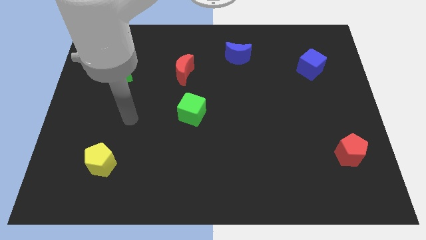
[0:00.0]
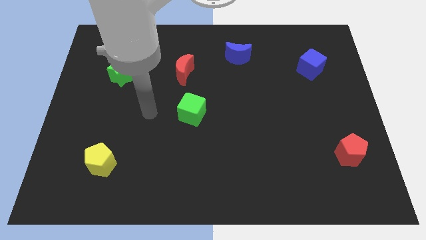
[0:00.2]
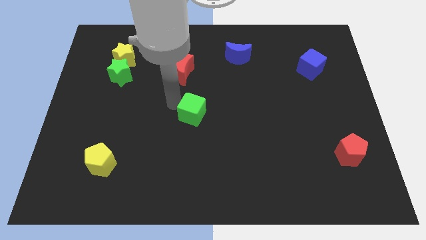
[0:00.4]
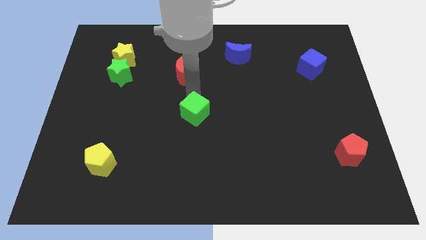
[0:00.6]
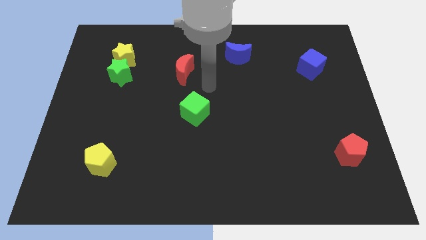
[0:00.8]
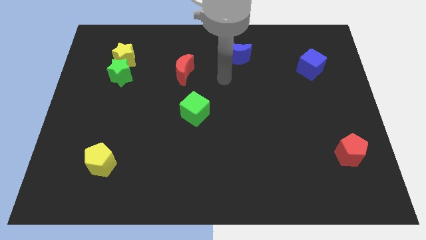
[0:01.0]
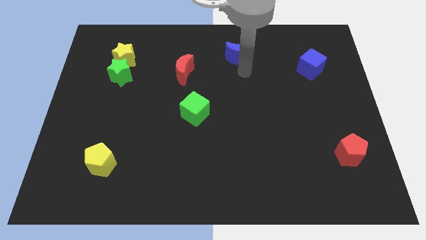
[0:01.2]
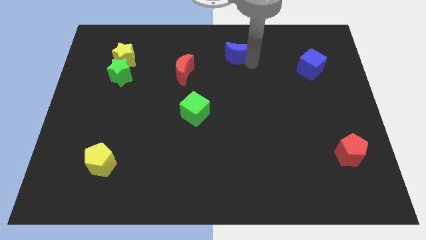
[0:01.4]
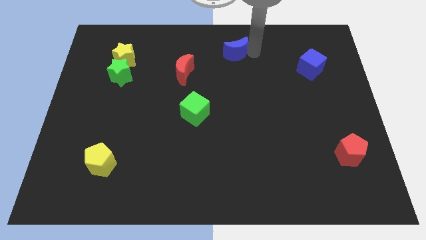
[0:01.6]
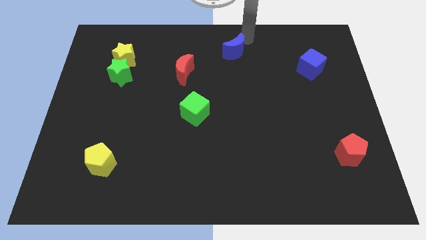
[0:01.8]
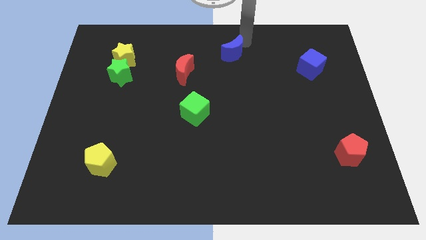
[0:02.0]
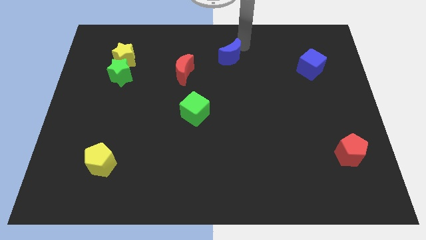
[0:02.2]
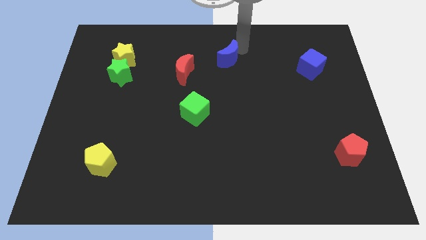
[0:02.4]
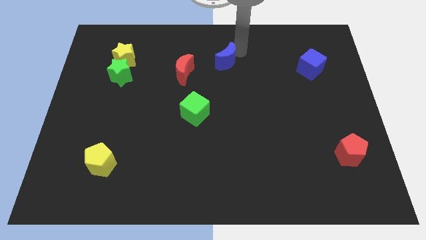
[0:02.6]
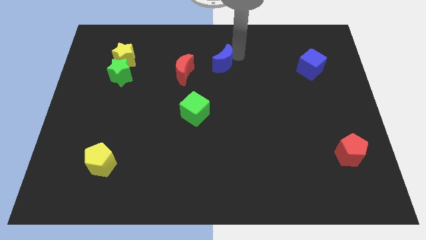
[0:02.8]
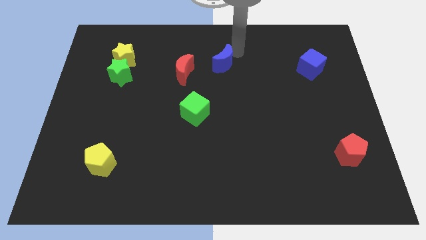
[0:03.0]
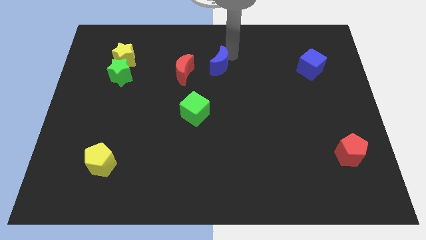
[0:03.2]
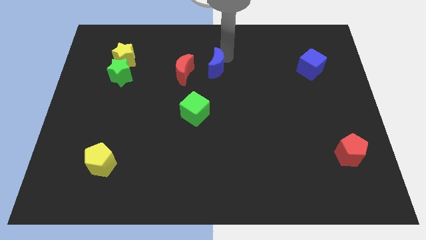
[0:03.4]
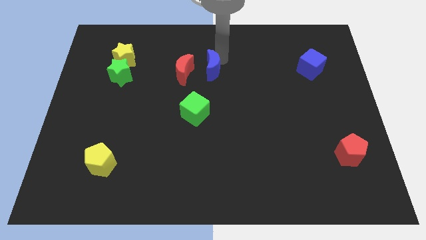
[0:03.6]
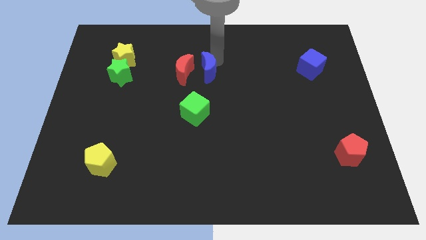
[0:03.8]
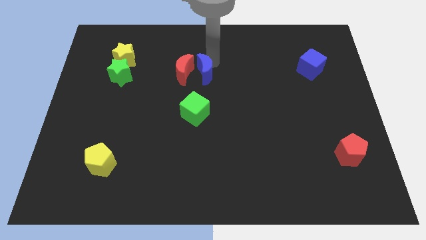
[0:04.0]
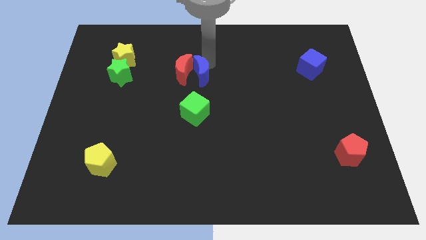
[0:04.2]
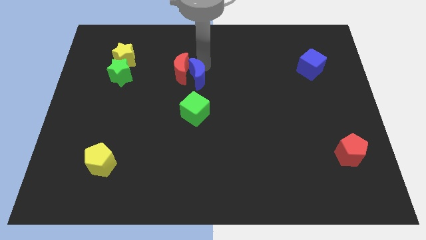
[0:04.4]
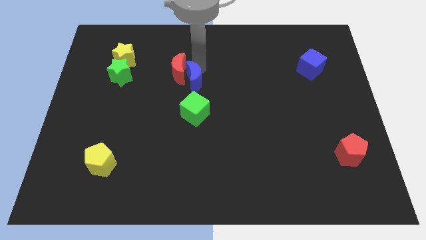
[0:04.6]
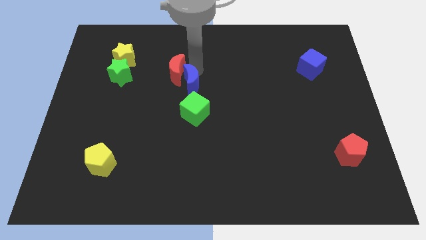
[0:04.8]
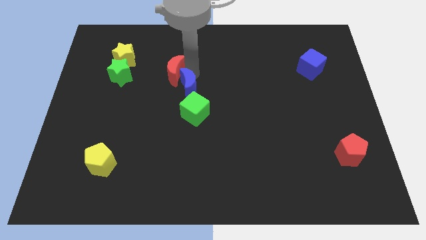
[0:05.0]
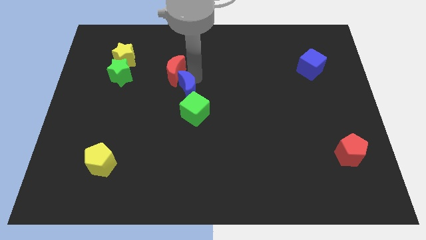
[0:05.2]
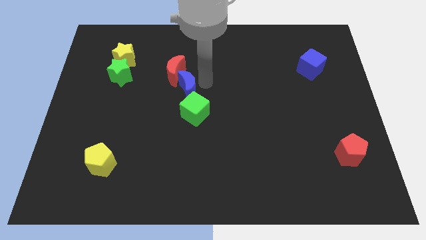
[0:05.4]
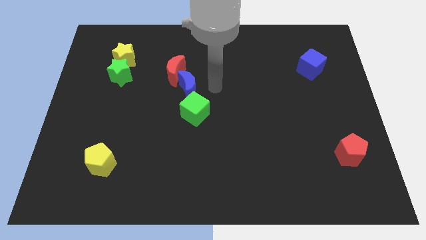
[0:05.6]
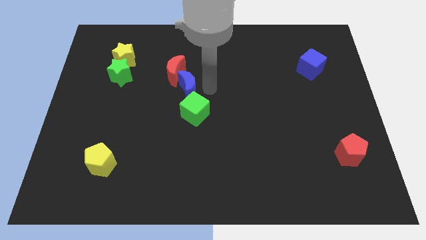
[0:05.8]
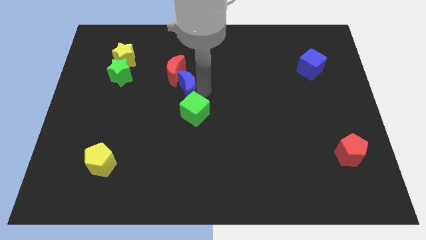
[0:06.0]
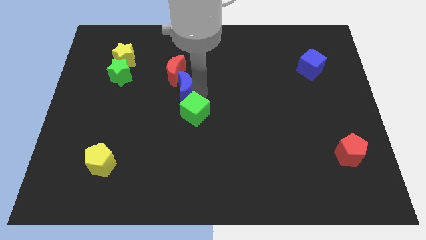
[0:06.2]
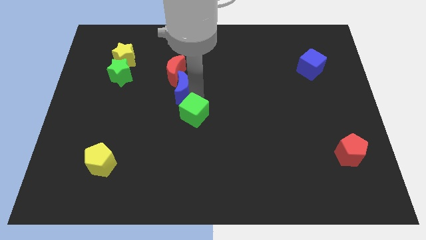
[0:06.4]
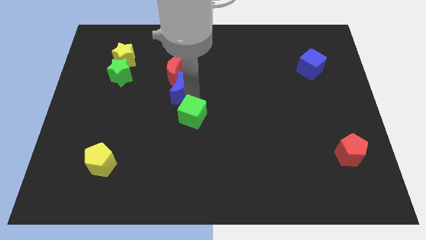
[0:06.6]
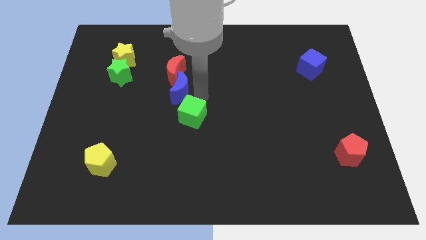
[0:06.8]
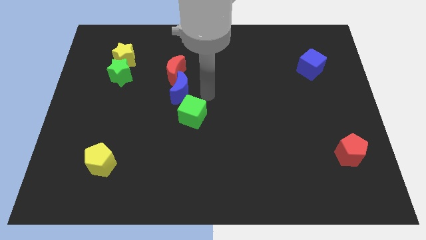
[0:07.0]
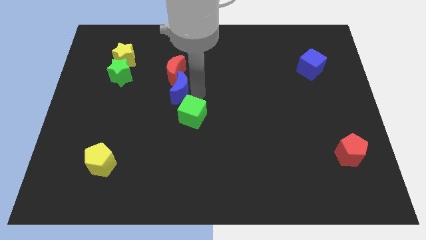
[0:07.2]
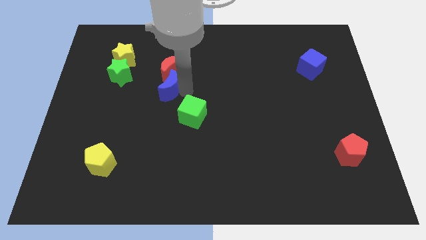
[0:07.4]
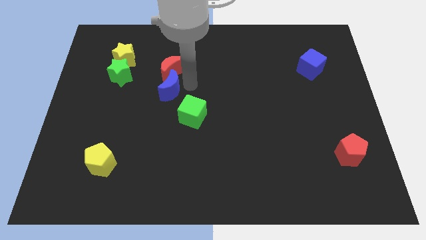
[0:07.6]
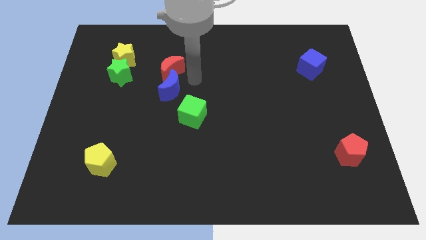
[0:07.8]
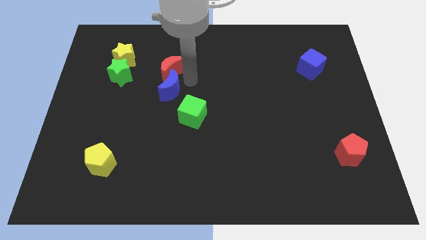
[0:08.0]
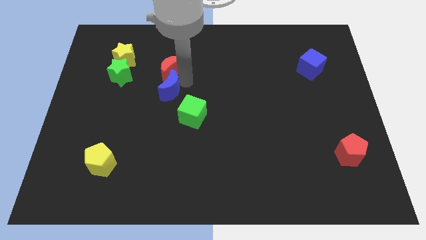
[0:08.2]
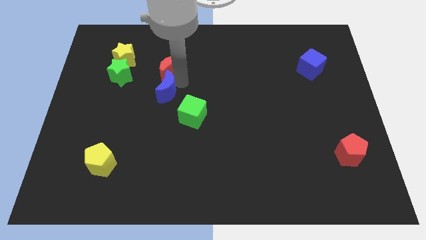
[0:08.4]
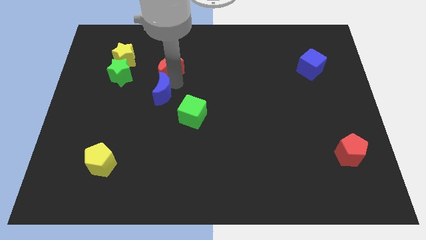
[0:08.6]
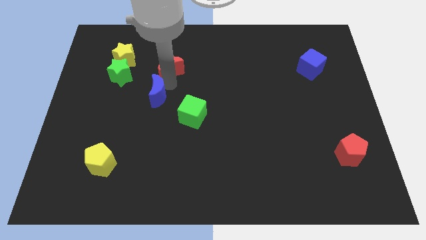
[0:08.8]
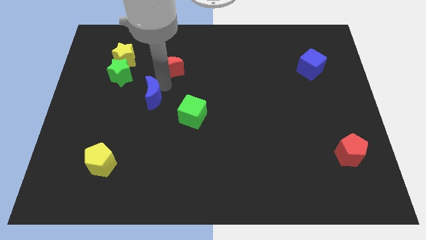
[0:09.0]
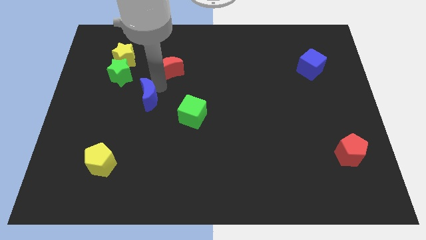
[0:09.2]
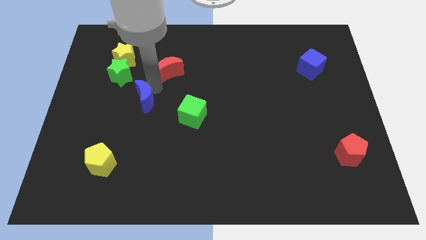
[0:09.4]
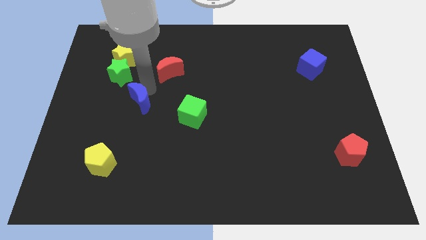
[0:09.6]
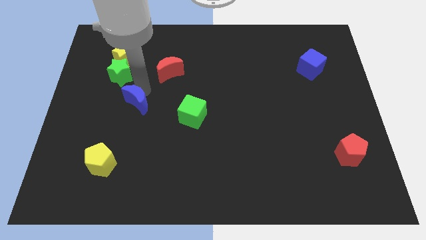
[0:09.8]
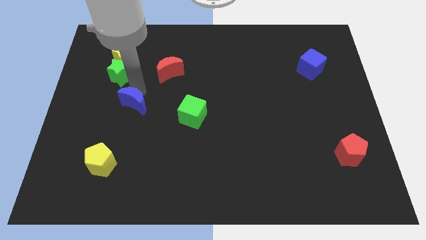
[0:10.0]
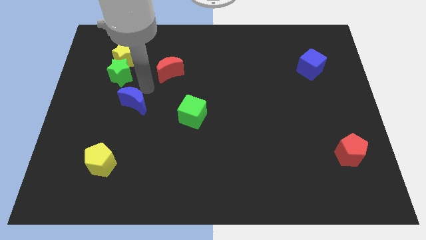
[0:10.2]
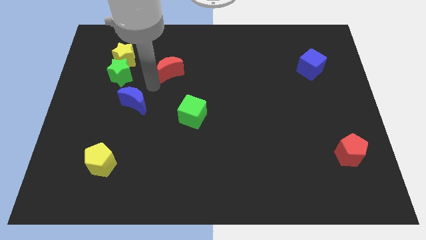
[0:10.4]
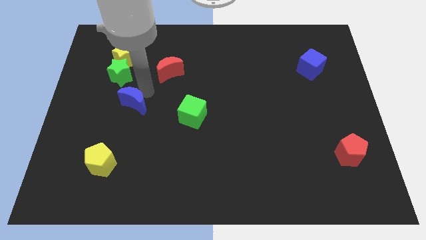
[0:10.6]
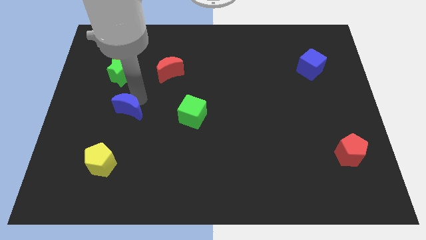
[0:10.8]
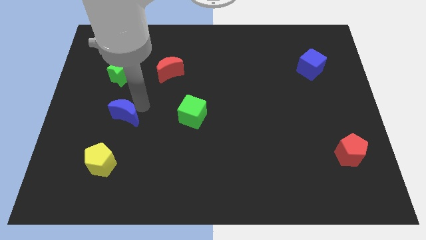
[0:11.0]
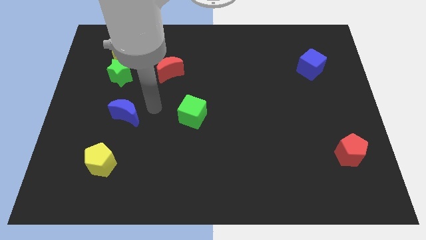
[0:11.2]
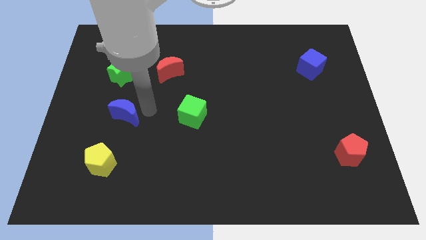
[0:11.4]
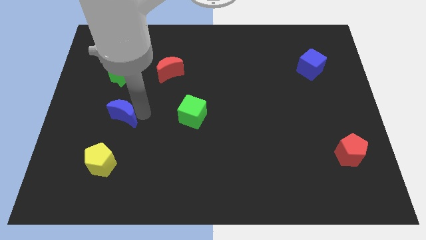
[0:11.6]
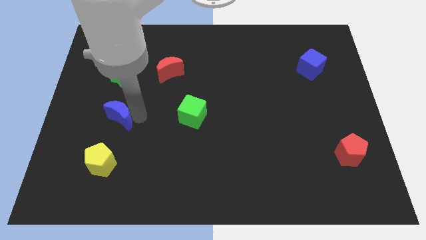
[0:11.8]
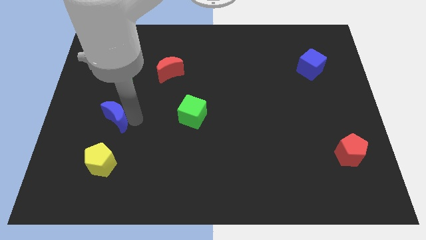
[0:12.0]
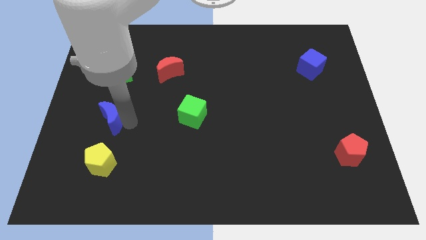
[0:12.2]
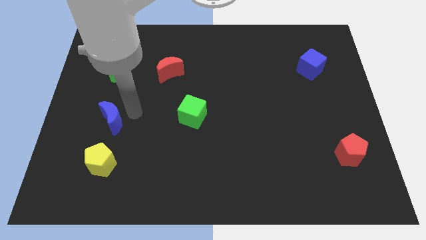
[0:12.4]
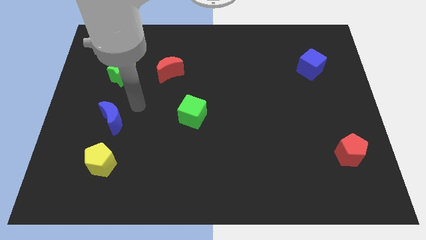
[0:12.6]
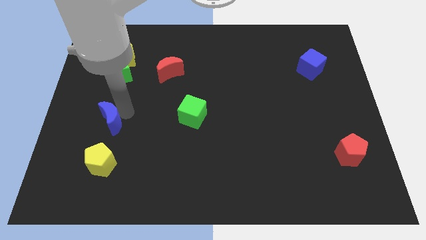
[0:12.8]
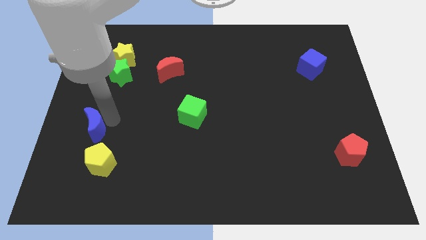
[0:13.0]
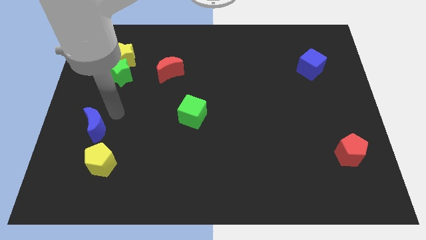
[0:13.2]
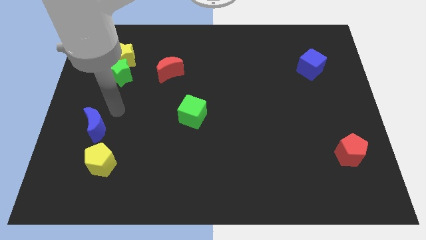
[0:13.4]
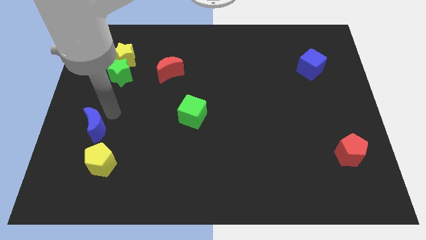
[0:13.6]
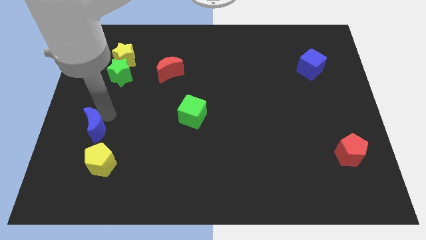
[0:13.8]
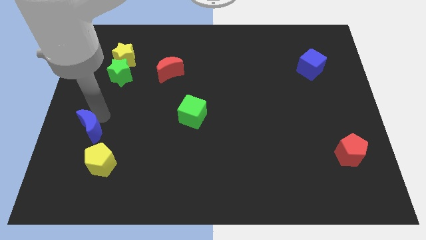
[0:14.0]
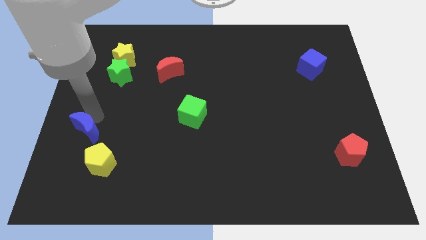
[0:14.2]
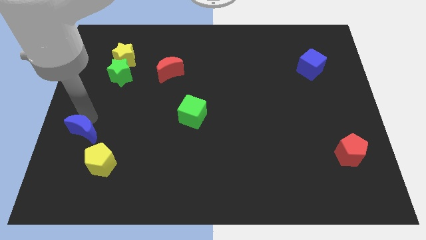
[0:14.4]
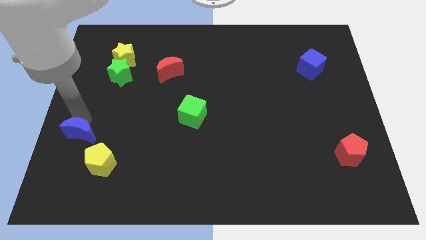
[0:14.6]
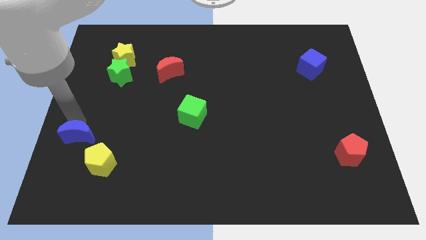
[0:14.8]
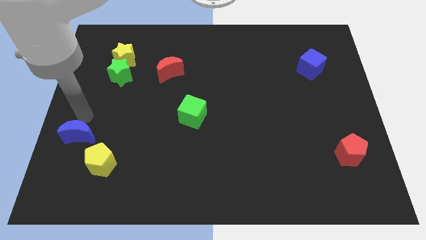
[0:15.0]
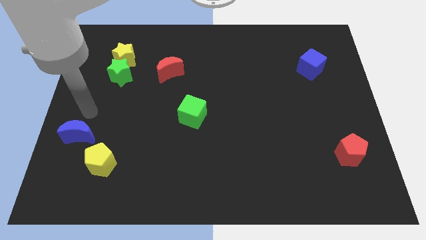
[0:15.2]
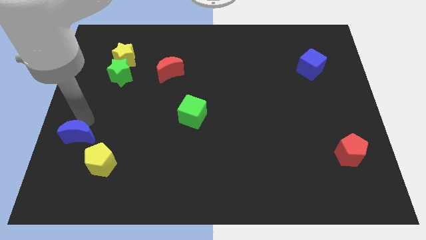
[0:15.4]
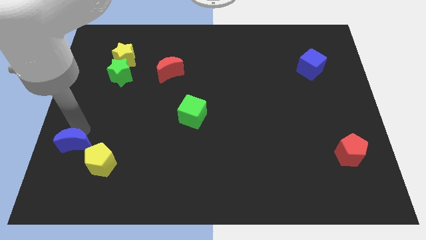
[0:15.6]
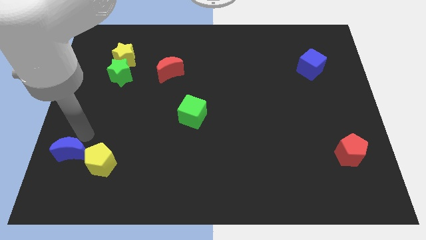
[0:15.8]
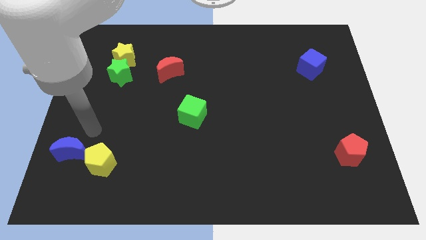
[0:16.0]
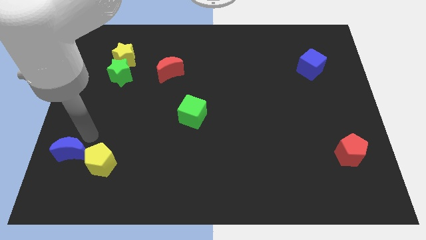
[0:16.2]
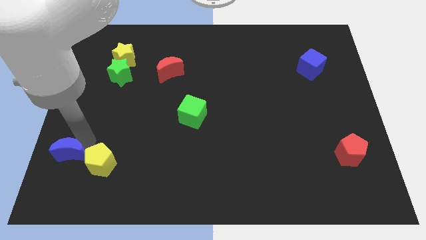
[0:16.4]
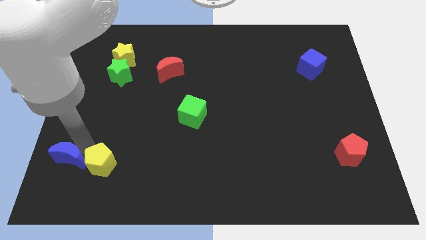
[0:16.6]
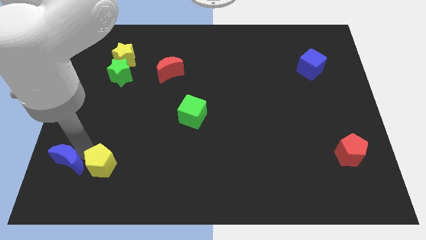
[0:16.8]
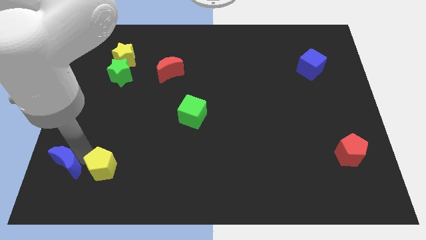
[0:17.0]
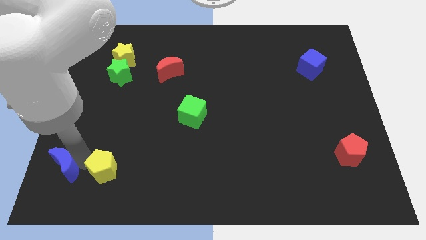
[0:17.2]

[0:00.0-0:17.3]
move the blue moon to the bottom left
